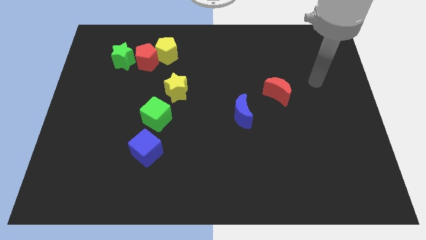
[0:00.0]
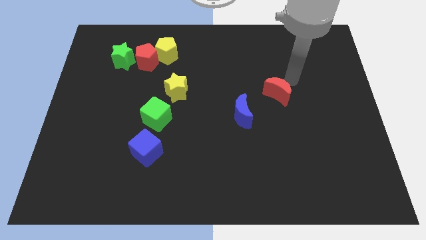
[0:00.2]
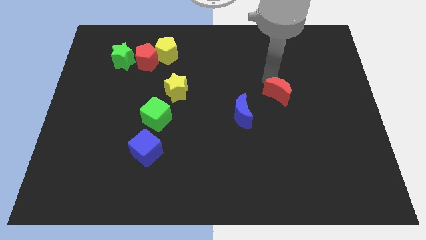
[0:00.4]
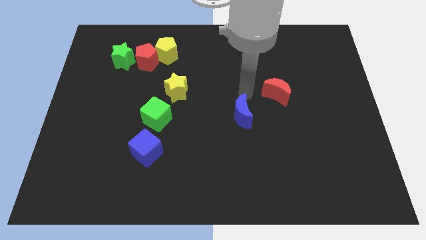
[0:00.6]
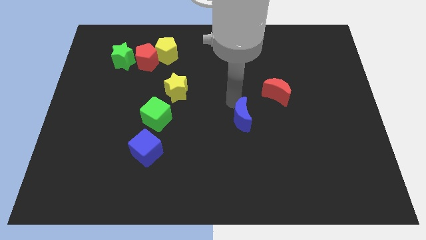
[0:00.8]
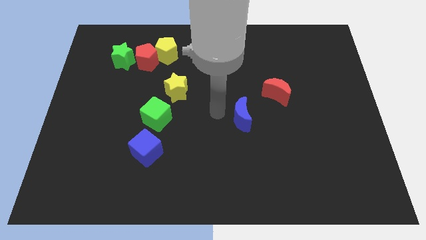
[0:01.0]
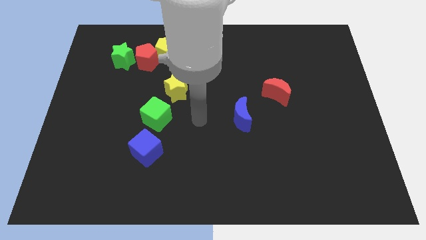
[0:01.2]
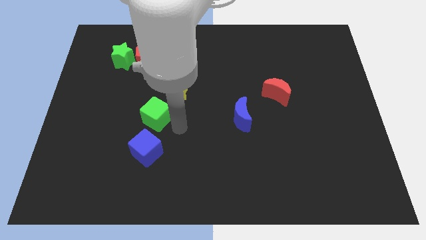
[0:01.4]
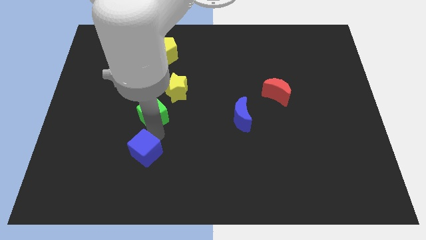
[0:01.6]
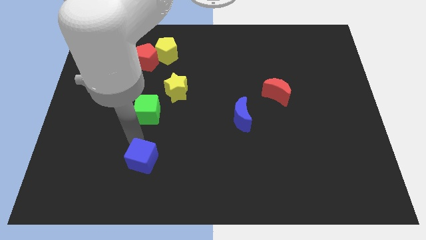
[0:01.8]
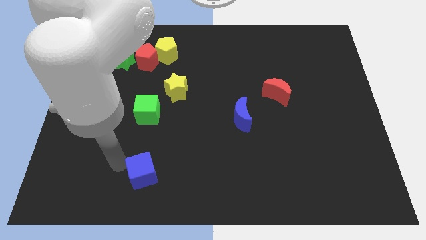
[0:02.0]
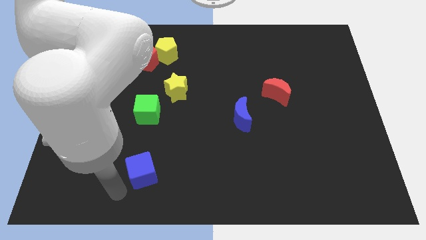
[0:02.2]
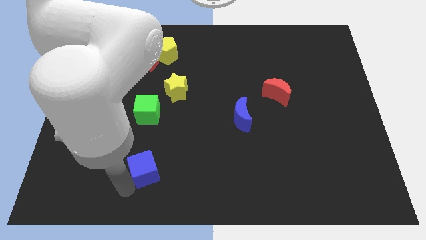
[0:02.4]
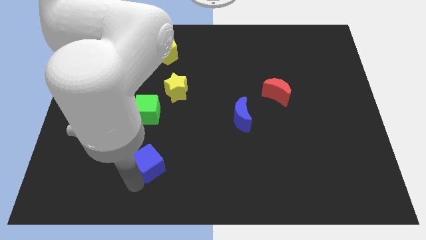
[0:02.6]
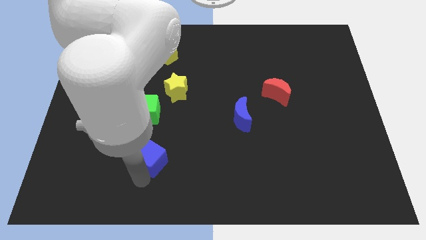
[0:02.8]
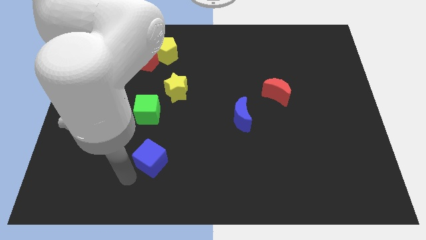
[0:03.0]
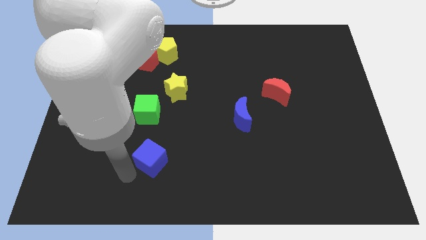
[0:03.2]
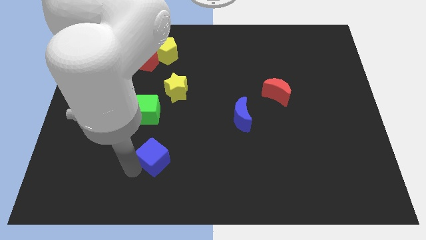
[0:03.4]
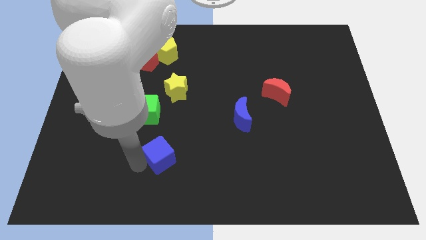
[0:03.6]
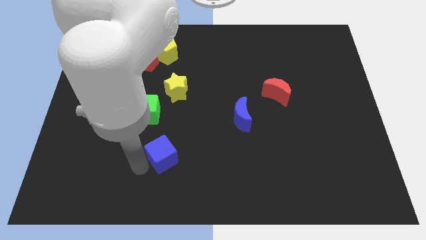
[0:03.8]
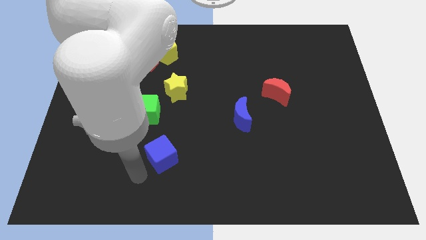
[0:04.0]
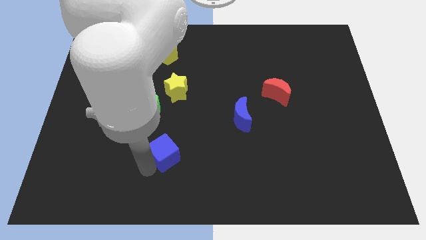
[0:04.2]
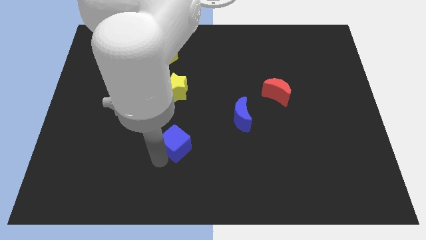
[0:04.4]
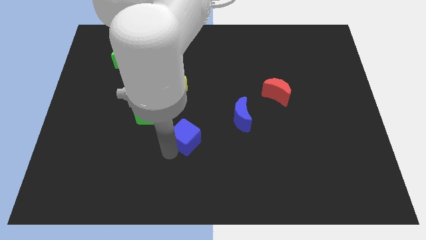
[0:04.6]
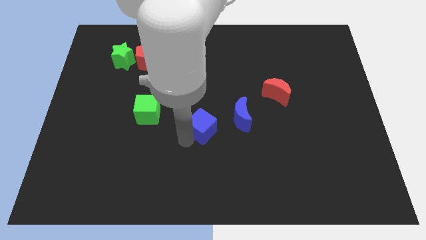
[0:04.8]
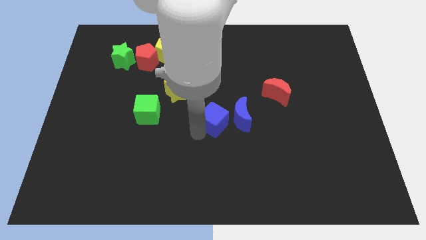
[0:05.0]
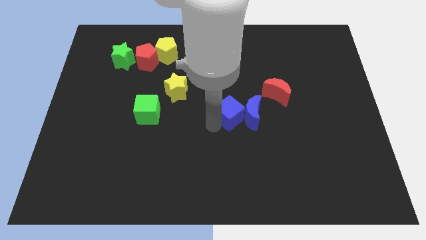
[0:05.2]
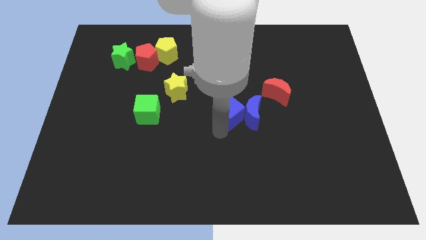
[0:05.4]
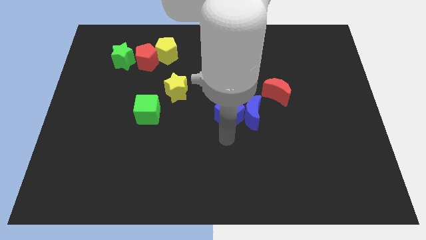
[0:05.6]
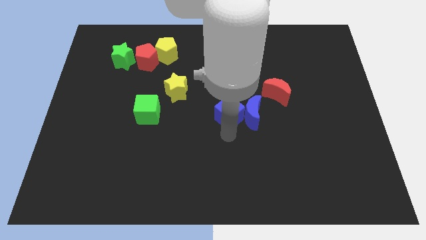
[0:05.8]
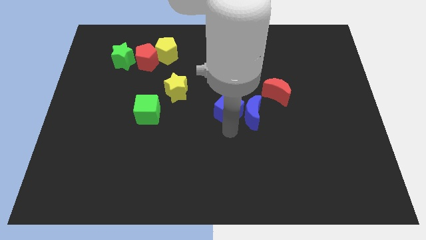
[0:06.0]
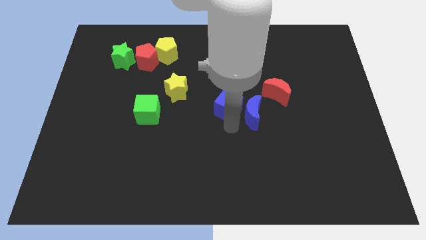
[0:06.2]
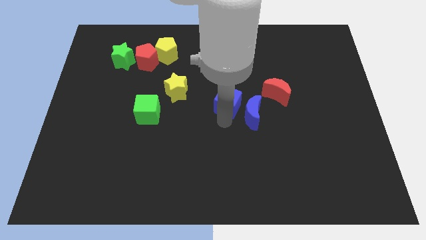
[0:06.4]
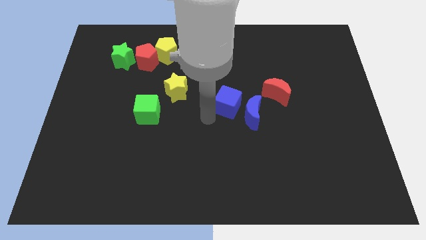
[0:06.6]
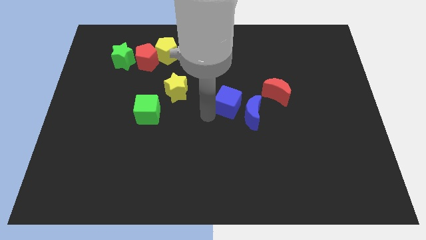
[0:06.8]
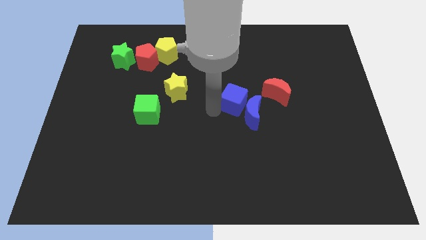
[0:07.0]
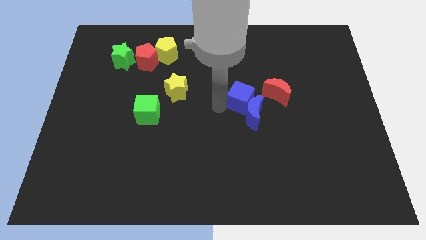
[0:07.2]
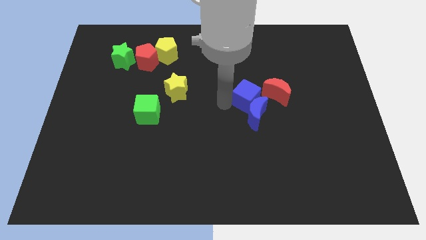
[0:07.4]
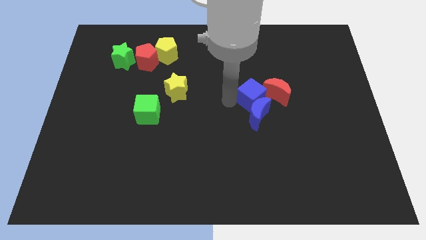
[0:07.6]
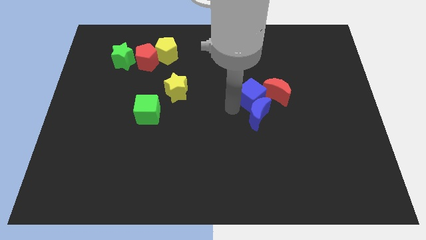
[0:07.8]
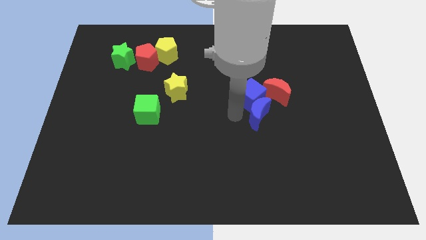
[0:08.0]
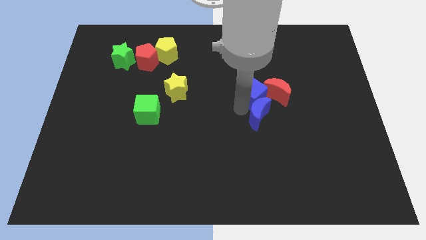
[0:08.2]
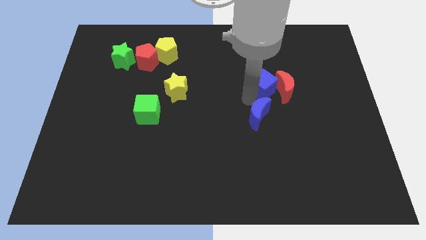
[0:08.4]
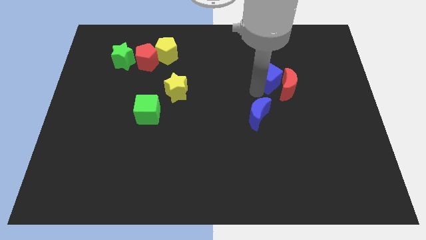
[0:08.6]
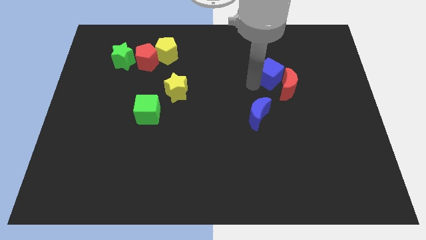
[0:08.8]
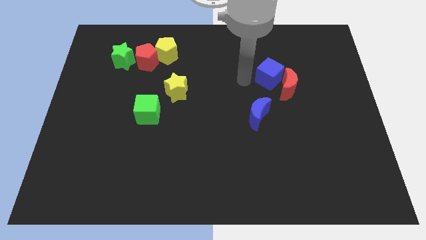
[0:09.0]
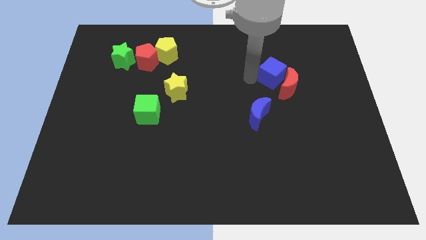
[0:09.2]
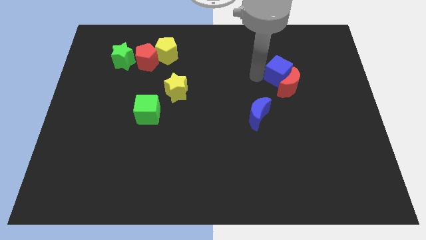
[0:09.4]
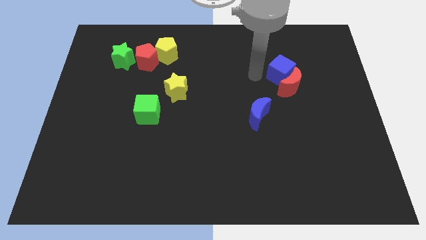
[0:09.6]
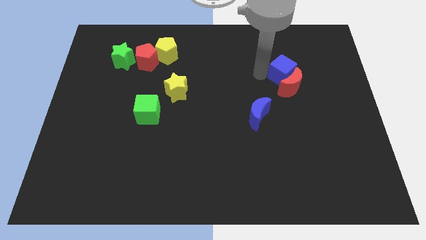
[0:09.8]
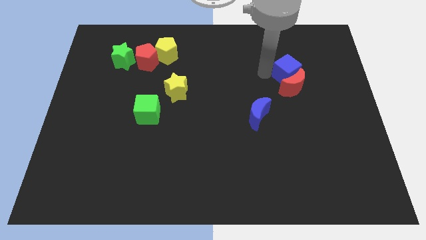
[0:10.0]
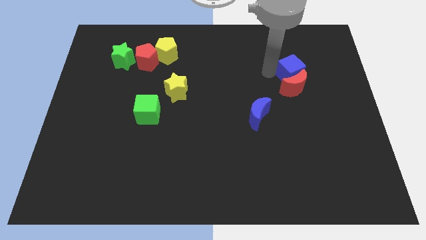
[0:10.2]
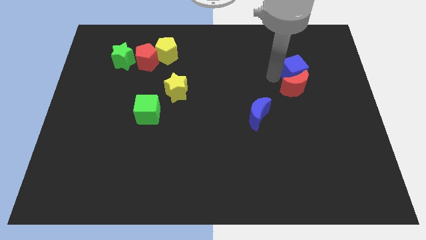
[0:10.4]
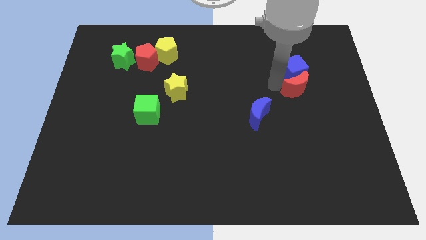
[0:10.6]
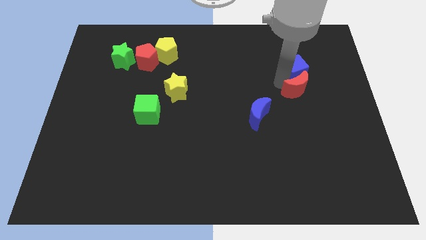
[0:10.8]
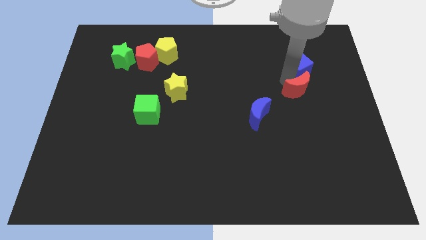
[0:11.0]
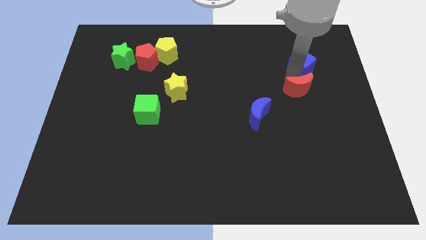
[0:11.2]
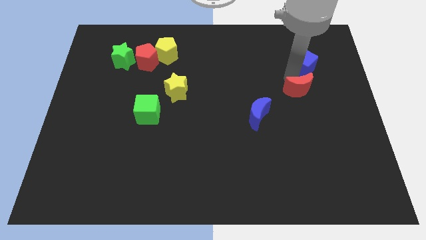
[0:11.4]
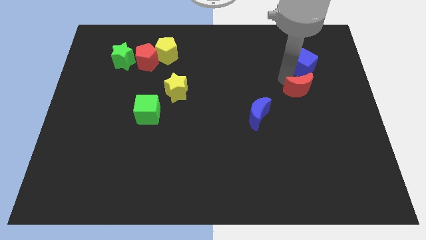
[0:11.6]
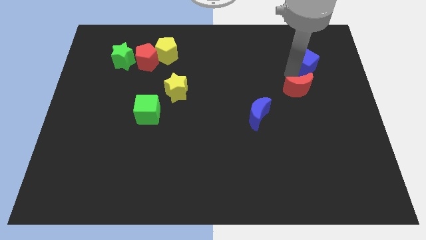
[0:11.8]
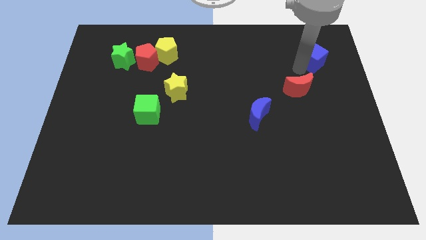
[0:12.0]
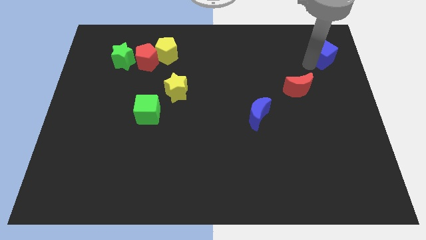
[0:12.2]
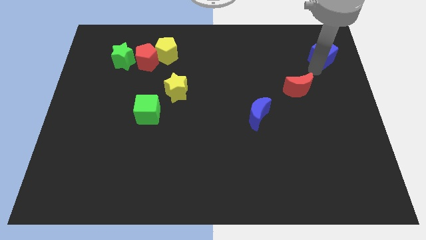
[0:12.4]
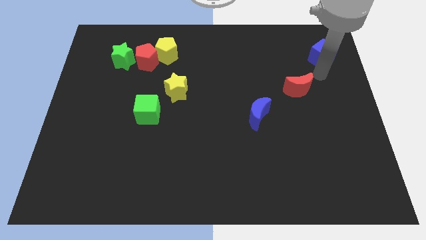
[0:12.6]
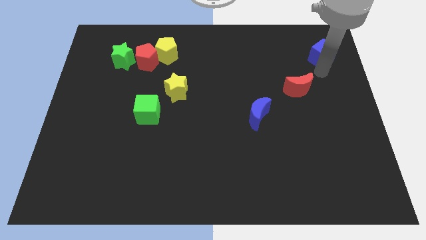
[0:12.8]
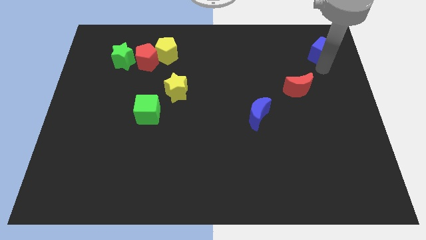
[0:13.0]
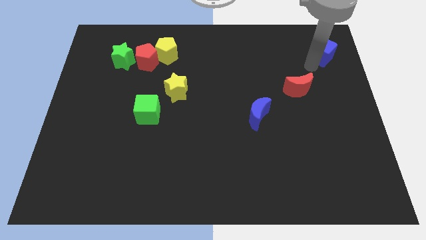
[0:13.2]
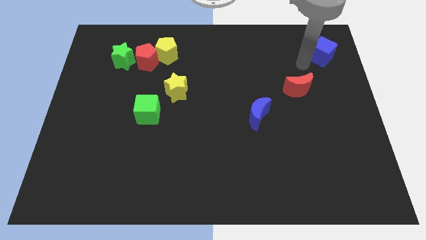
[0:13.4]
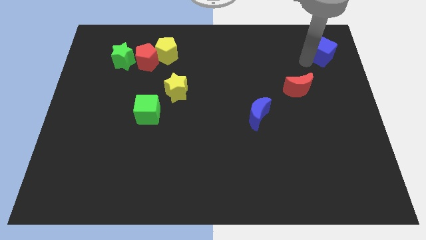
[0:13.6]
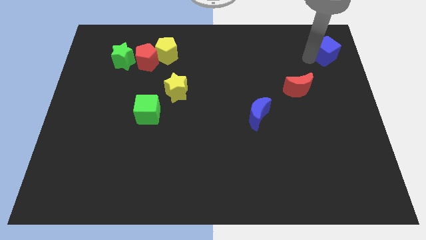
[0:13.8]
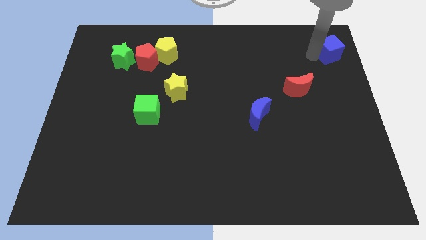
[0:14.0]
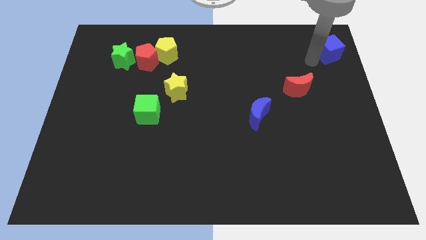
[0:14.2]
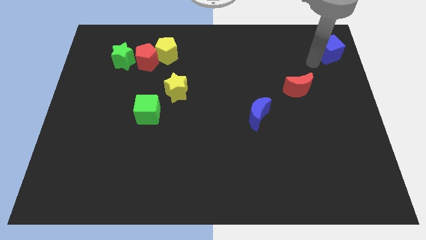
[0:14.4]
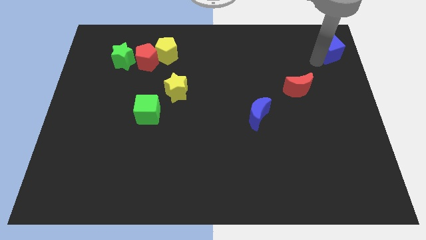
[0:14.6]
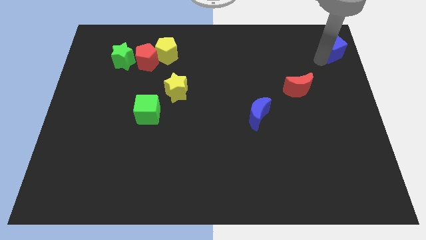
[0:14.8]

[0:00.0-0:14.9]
slide the blue cube to the top right corner
